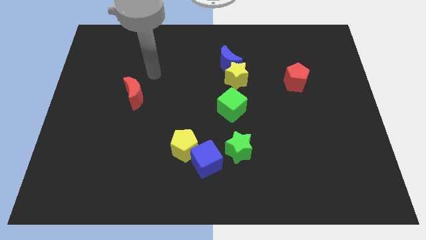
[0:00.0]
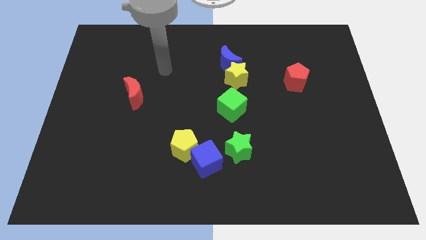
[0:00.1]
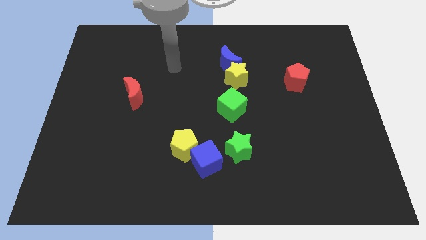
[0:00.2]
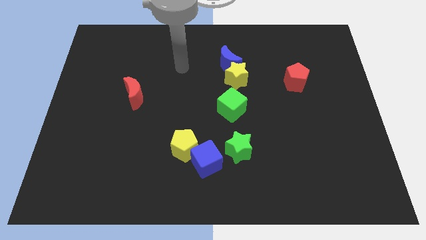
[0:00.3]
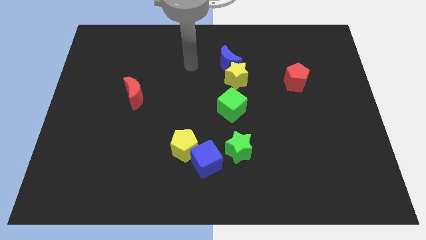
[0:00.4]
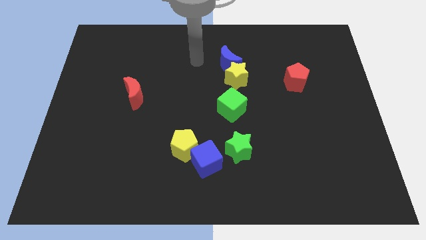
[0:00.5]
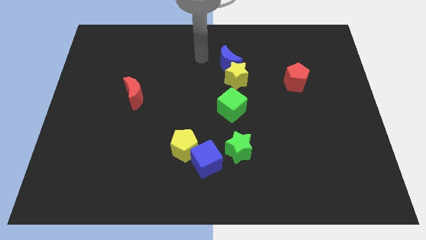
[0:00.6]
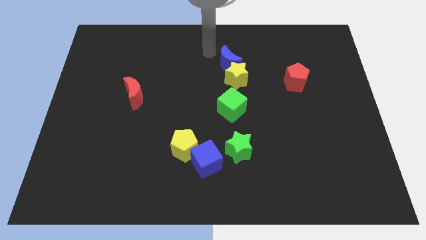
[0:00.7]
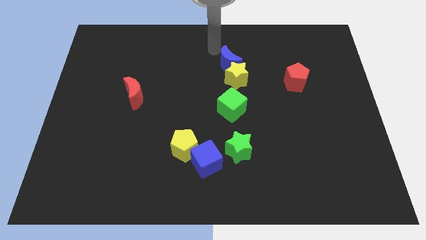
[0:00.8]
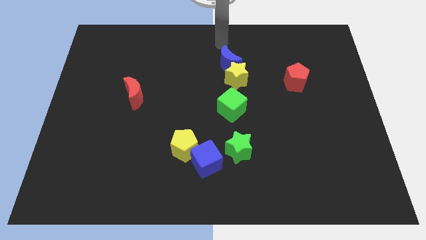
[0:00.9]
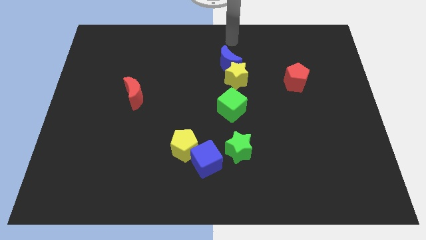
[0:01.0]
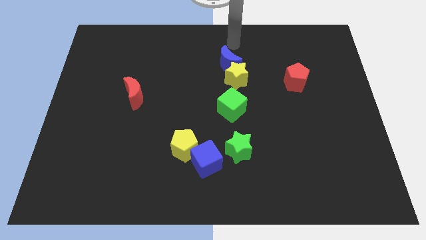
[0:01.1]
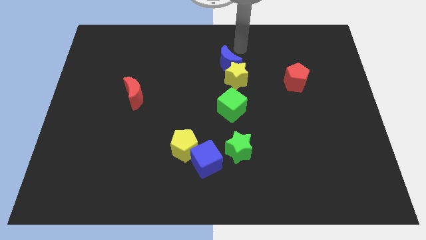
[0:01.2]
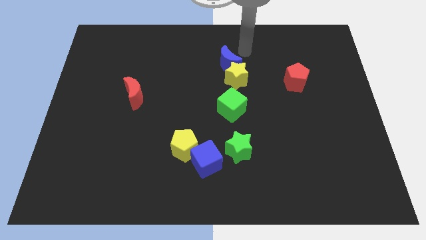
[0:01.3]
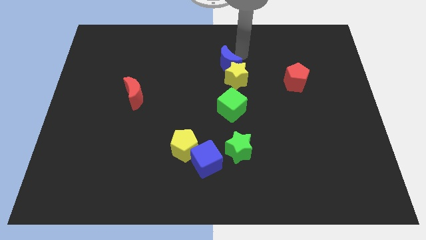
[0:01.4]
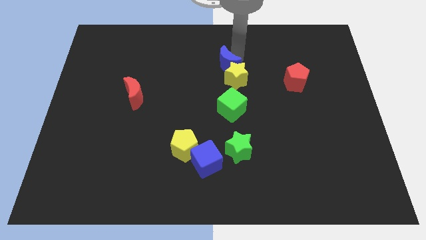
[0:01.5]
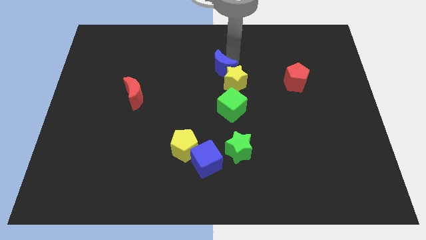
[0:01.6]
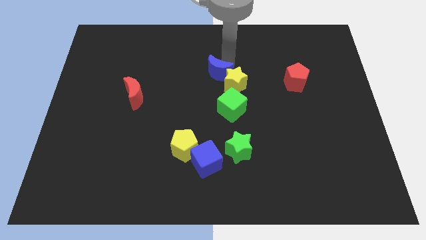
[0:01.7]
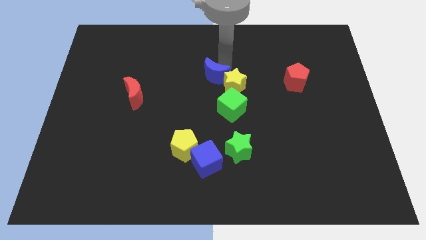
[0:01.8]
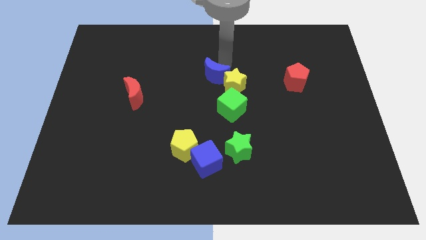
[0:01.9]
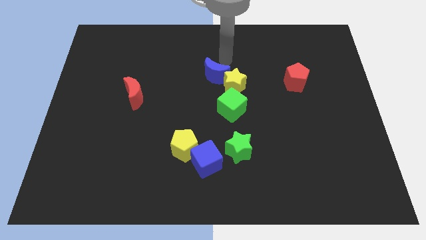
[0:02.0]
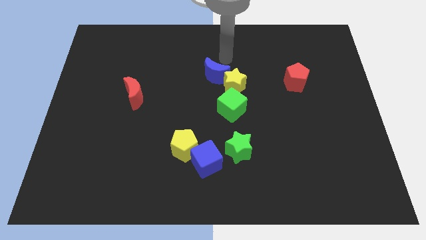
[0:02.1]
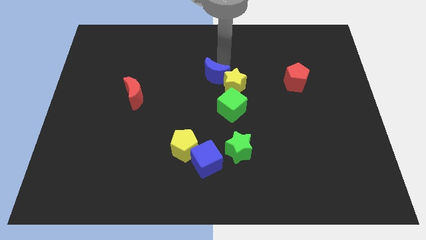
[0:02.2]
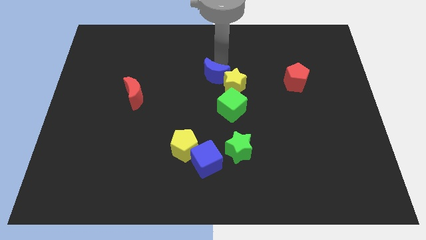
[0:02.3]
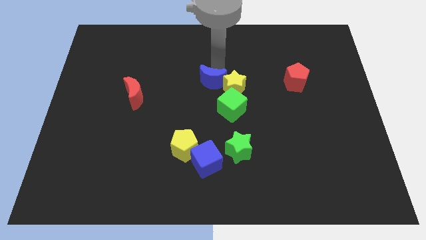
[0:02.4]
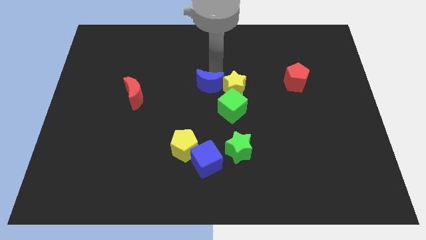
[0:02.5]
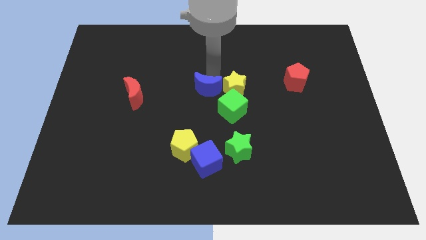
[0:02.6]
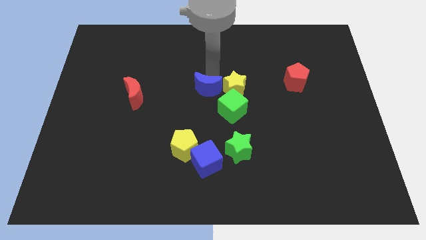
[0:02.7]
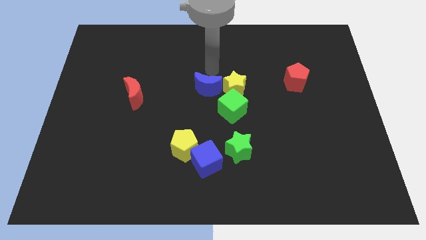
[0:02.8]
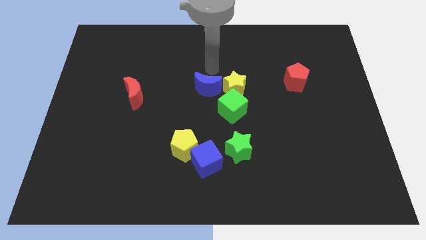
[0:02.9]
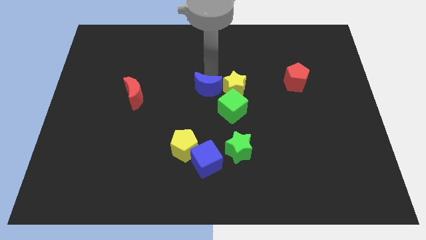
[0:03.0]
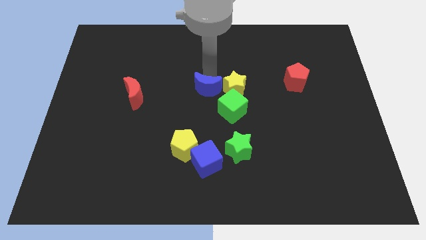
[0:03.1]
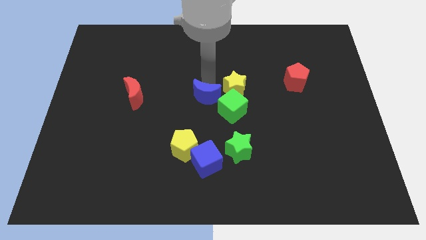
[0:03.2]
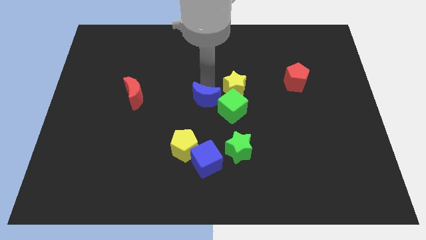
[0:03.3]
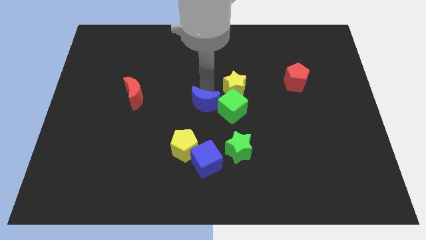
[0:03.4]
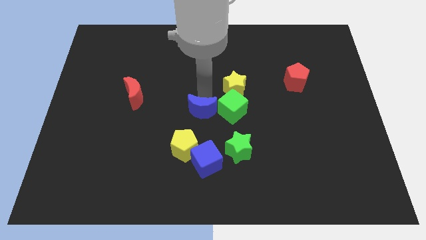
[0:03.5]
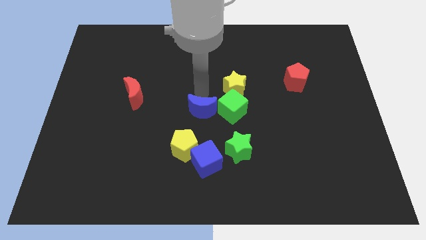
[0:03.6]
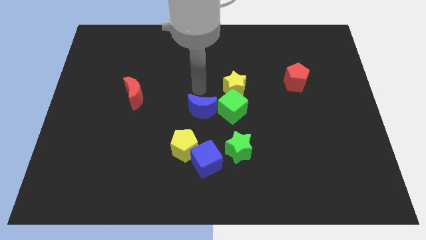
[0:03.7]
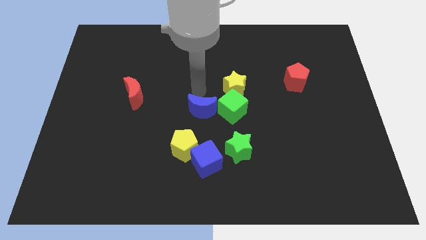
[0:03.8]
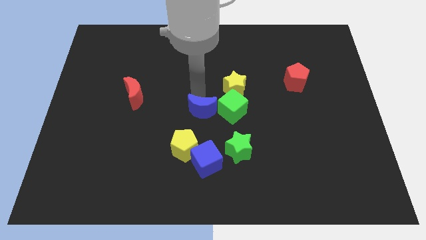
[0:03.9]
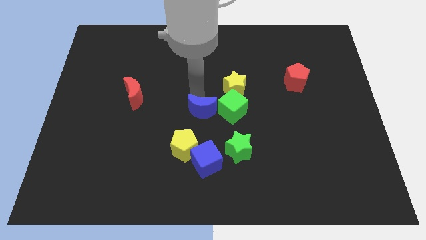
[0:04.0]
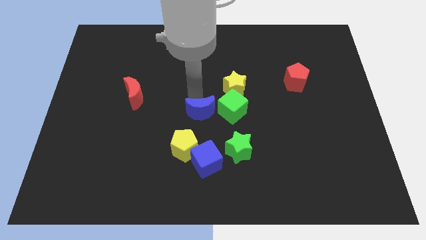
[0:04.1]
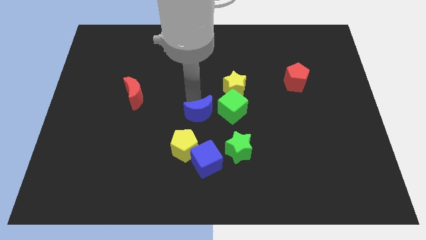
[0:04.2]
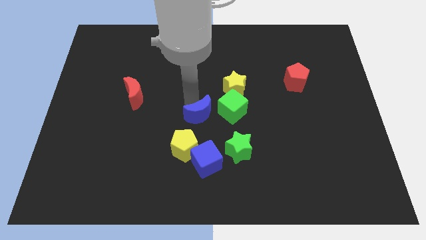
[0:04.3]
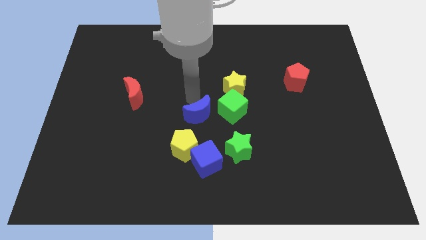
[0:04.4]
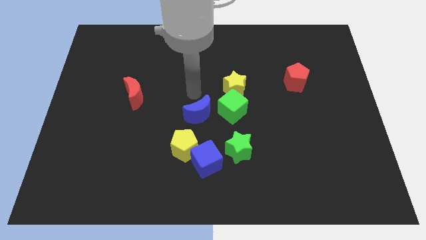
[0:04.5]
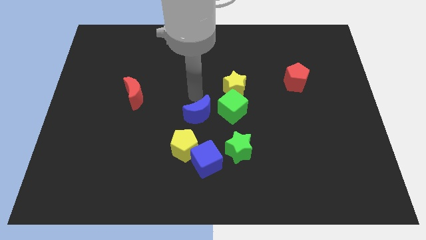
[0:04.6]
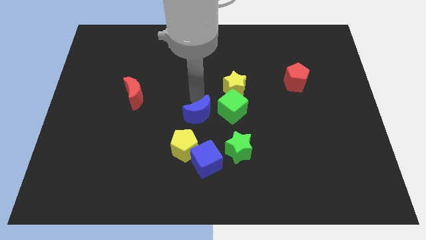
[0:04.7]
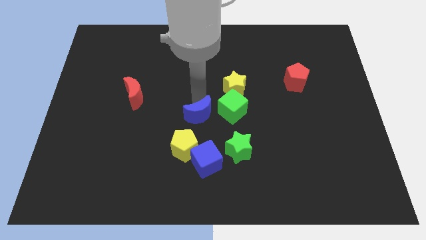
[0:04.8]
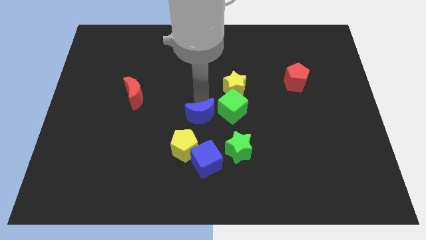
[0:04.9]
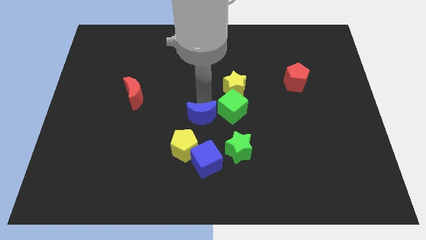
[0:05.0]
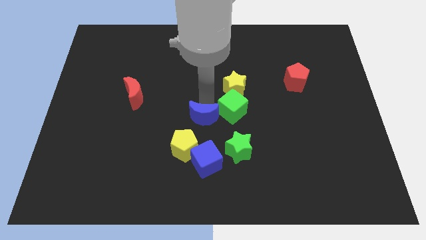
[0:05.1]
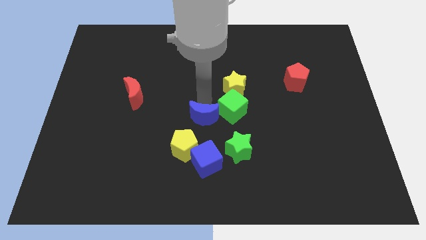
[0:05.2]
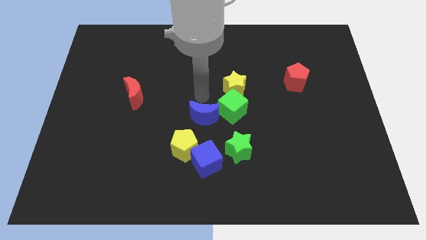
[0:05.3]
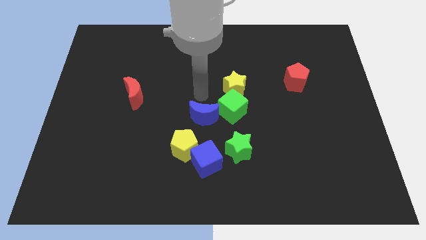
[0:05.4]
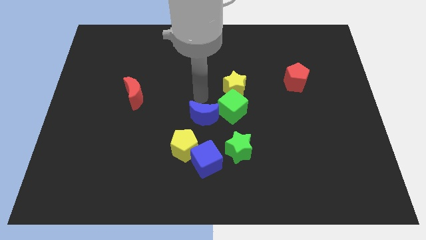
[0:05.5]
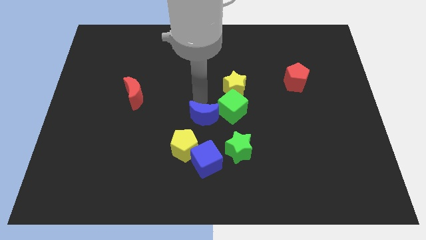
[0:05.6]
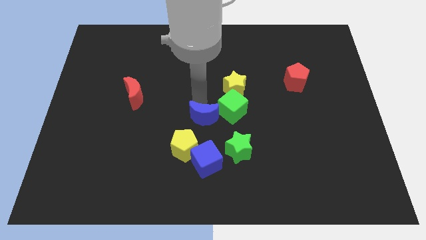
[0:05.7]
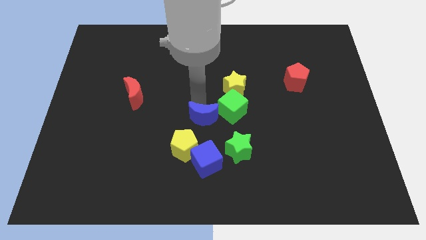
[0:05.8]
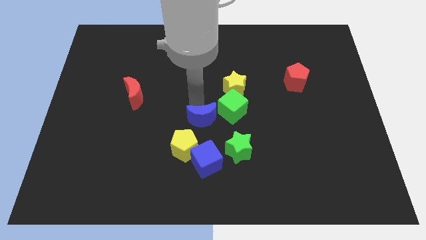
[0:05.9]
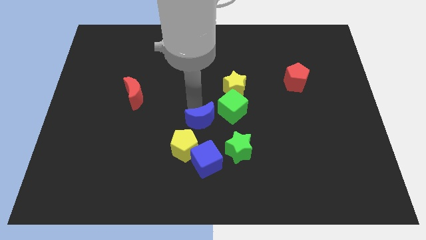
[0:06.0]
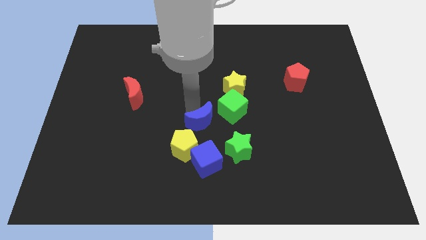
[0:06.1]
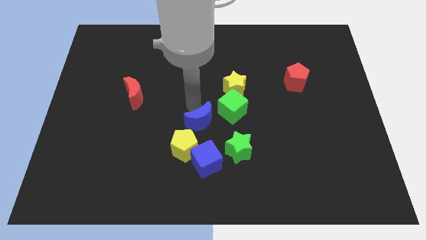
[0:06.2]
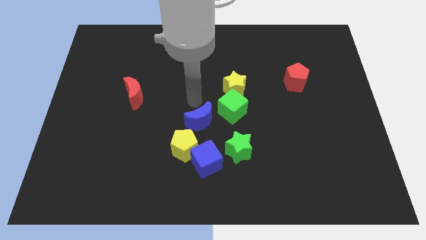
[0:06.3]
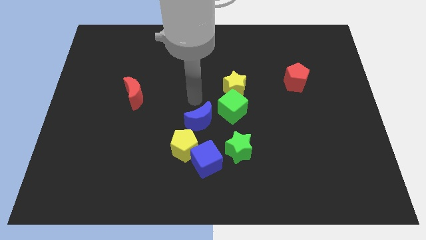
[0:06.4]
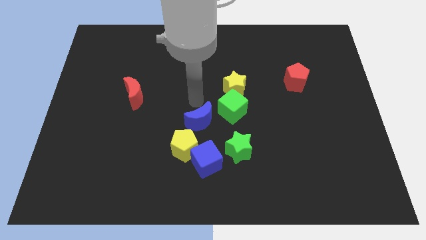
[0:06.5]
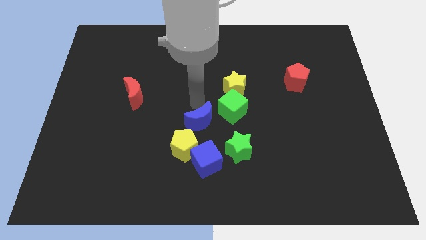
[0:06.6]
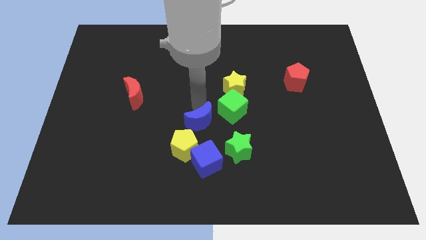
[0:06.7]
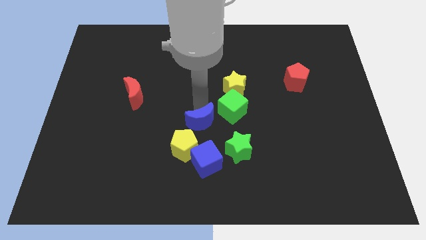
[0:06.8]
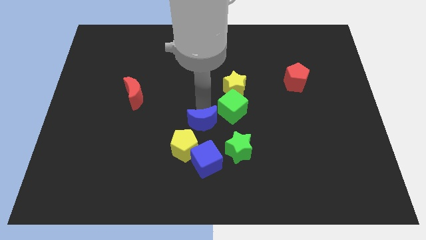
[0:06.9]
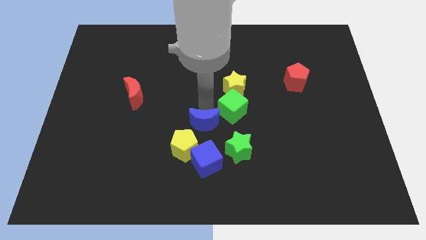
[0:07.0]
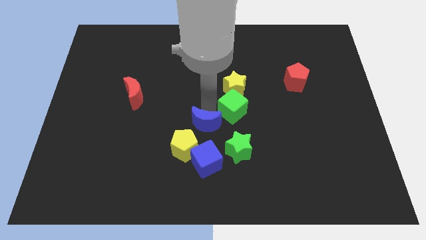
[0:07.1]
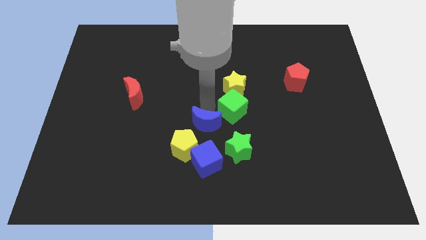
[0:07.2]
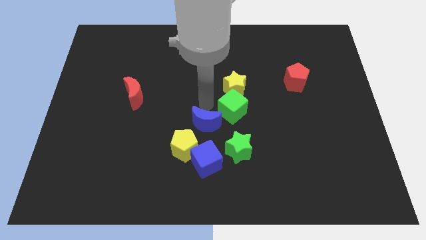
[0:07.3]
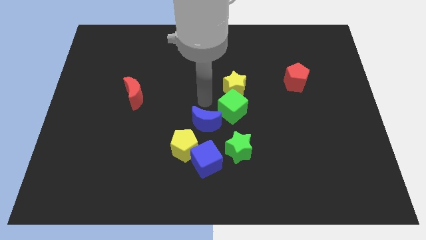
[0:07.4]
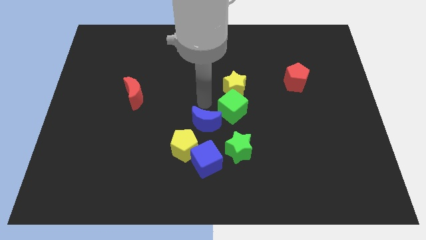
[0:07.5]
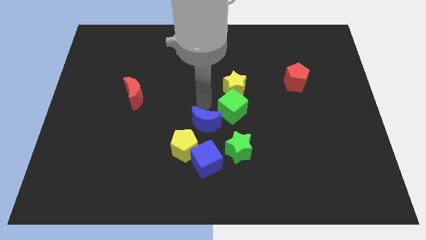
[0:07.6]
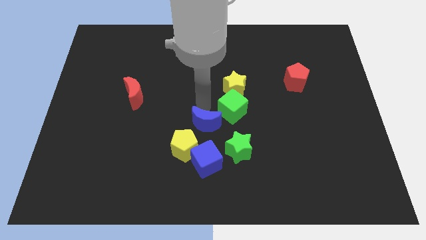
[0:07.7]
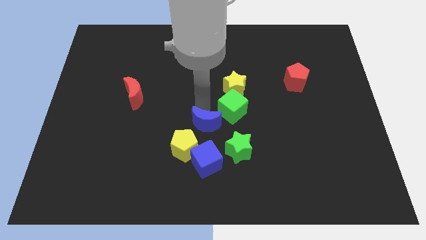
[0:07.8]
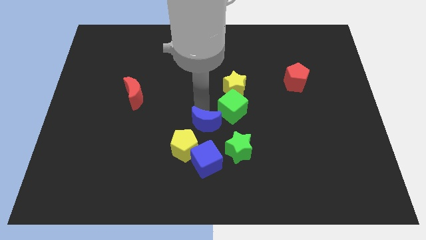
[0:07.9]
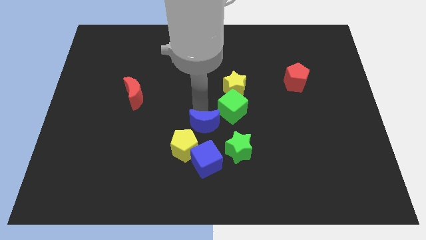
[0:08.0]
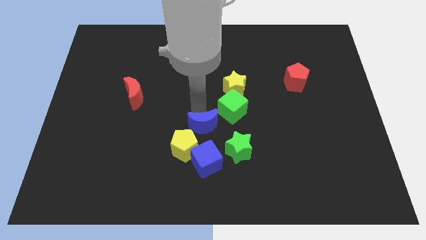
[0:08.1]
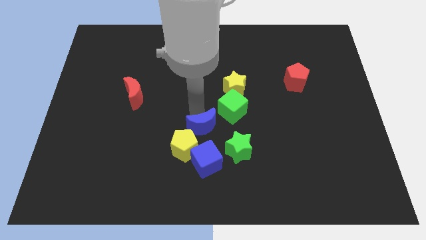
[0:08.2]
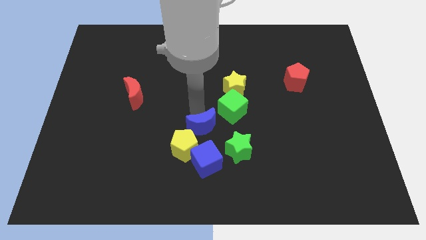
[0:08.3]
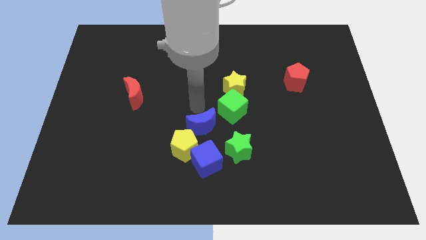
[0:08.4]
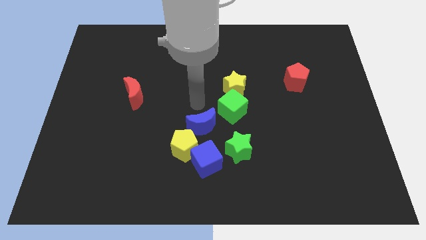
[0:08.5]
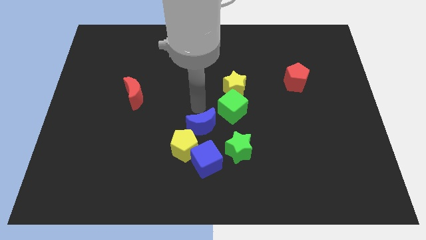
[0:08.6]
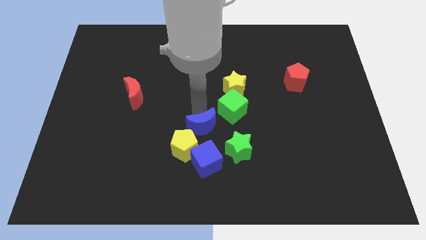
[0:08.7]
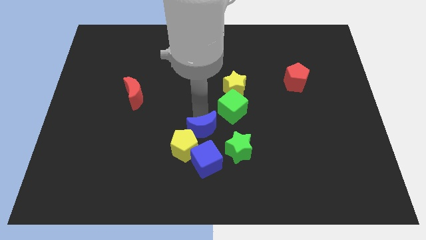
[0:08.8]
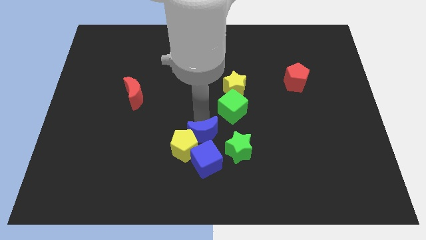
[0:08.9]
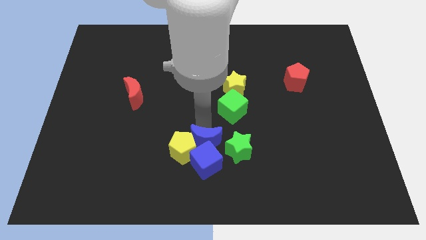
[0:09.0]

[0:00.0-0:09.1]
put the blue moon next to the blue cube
